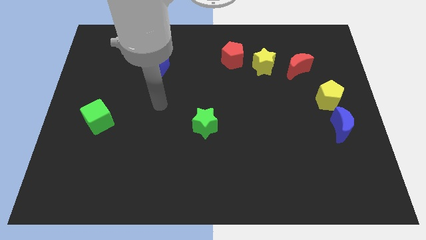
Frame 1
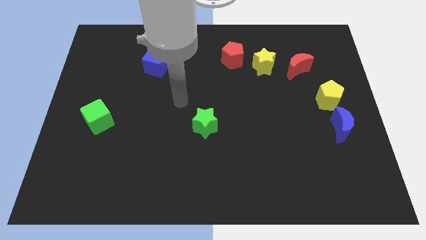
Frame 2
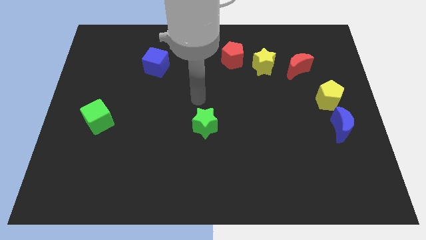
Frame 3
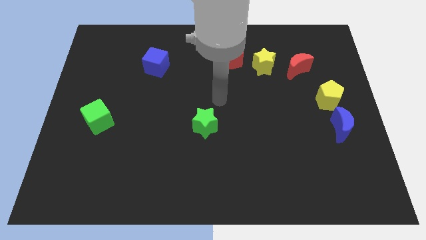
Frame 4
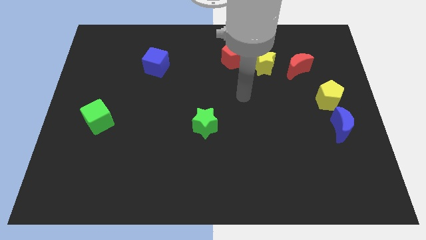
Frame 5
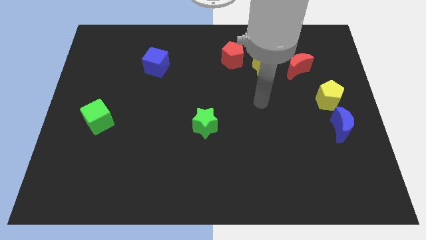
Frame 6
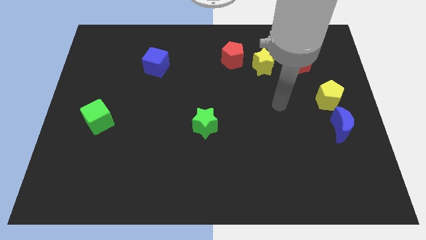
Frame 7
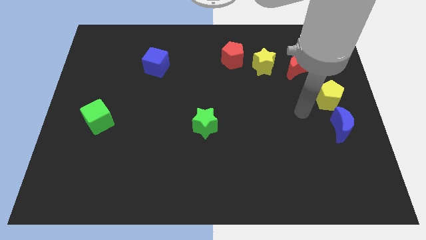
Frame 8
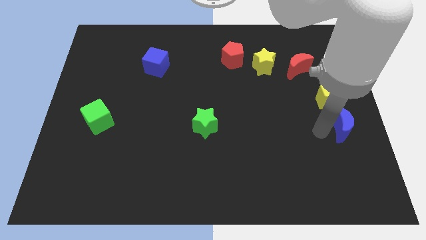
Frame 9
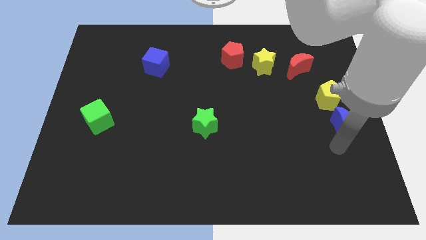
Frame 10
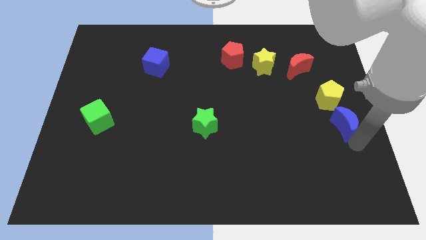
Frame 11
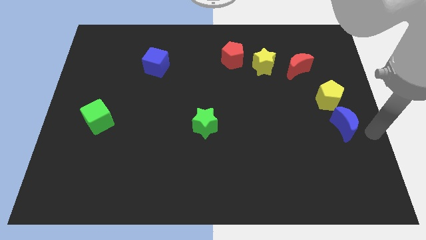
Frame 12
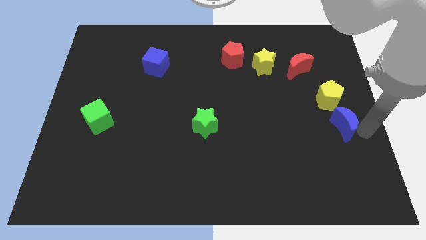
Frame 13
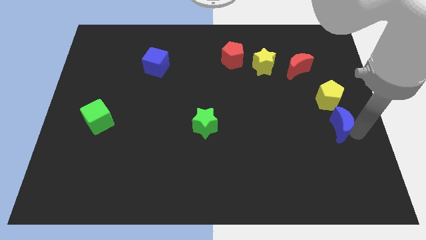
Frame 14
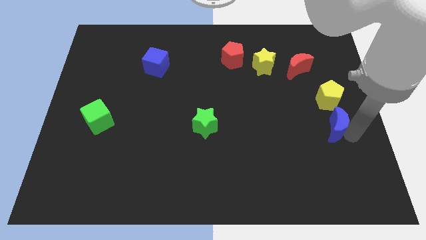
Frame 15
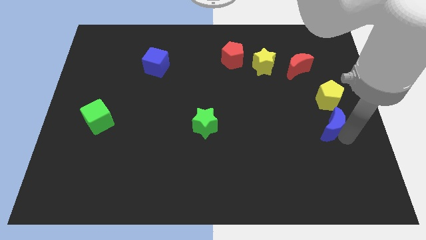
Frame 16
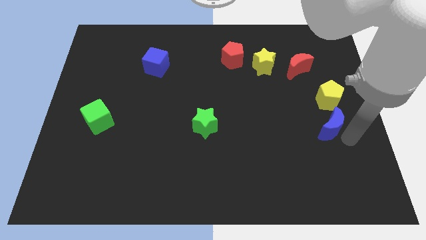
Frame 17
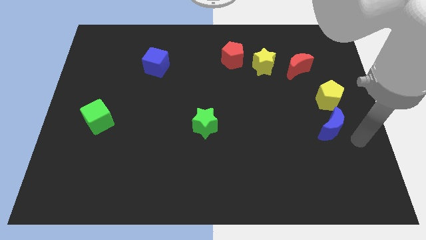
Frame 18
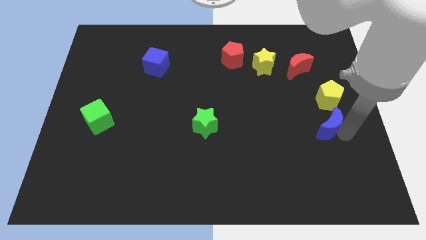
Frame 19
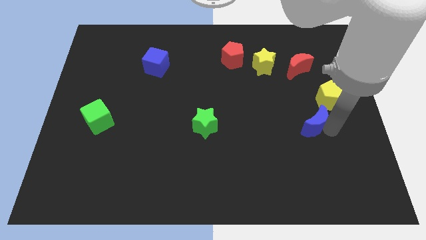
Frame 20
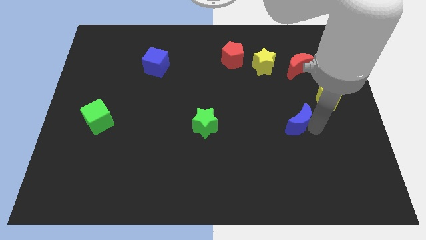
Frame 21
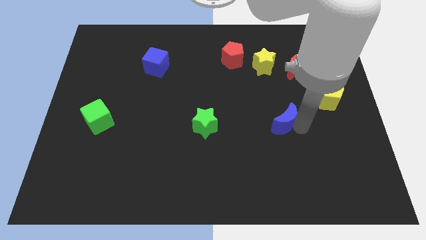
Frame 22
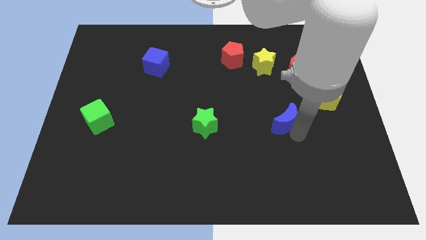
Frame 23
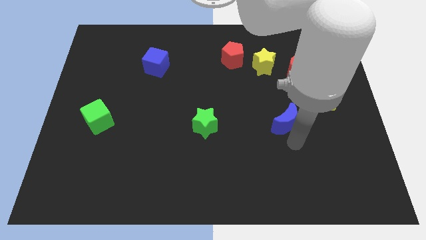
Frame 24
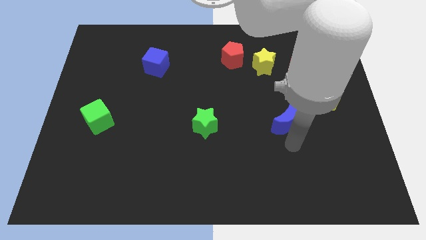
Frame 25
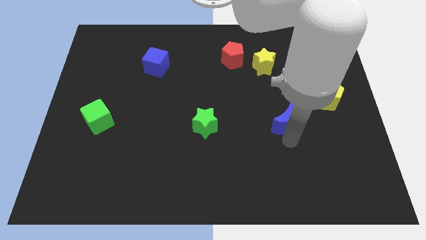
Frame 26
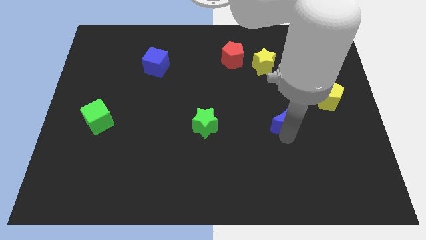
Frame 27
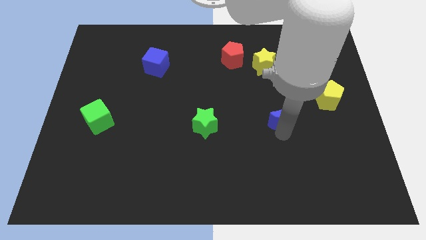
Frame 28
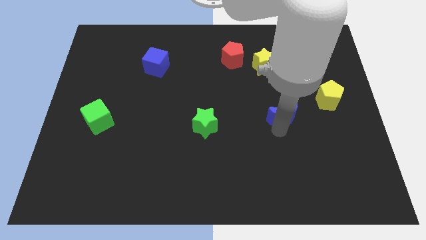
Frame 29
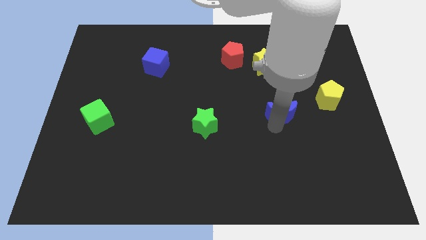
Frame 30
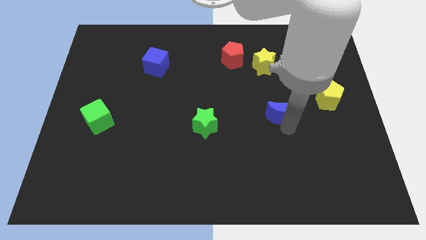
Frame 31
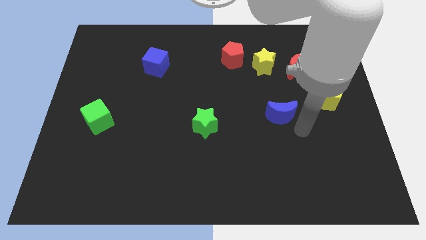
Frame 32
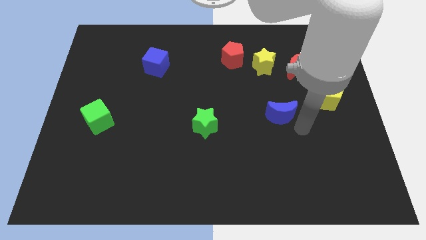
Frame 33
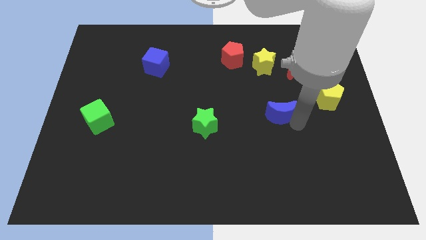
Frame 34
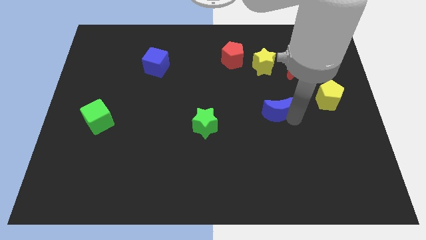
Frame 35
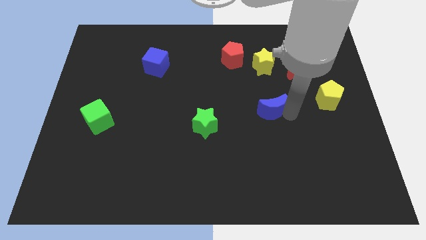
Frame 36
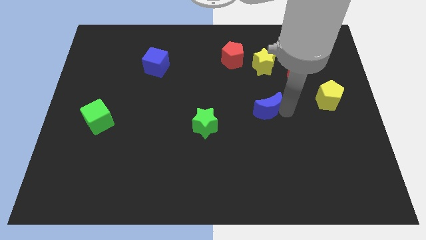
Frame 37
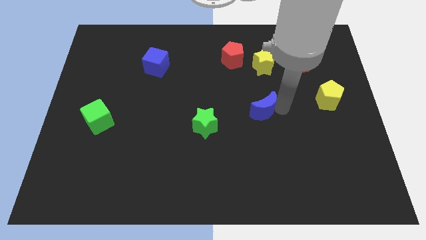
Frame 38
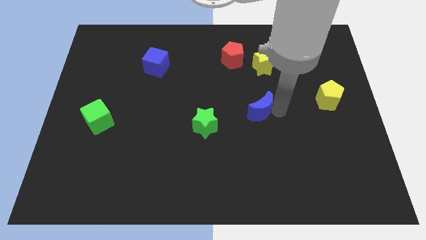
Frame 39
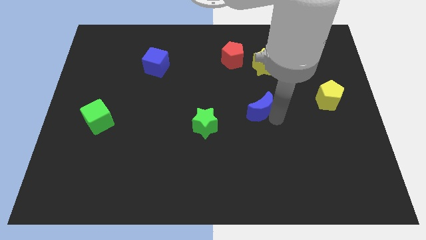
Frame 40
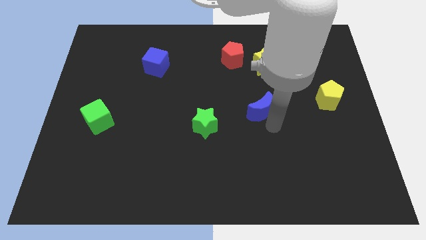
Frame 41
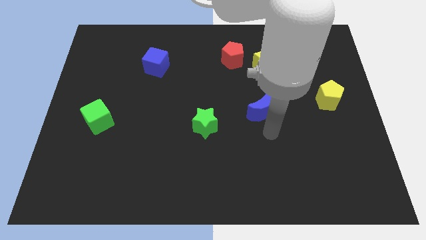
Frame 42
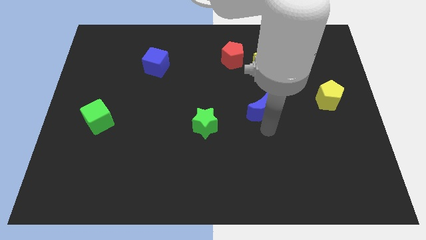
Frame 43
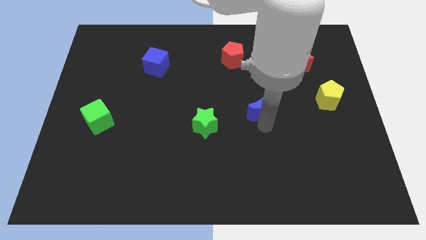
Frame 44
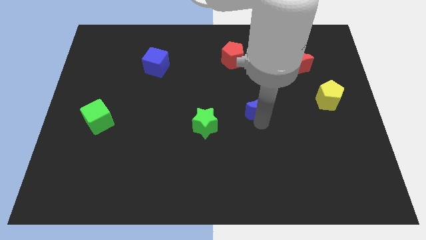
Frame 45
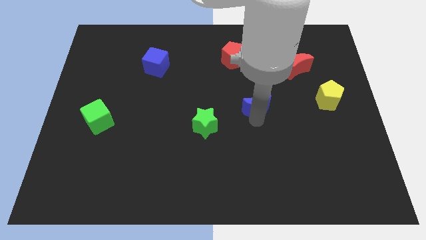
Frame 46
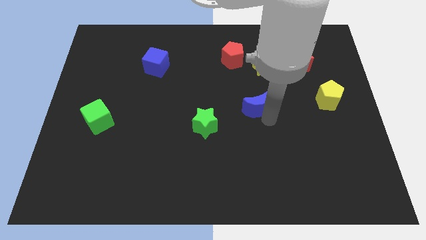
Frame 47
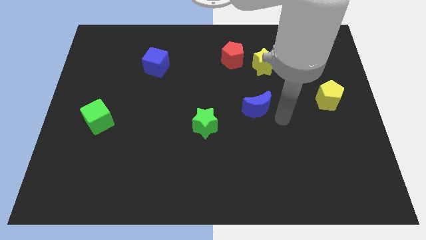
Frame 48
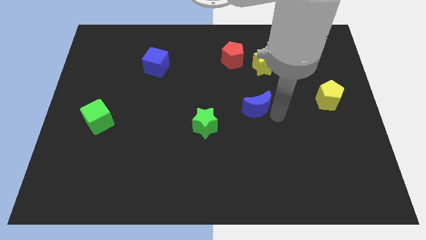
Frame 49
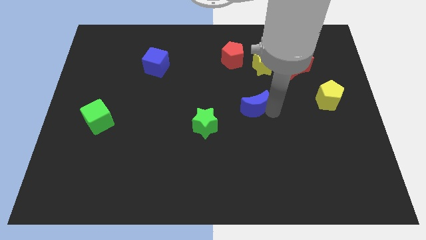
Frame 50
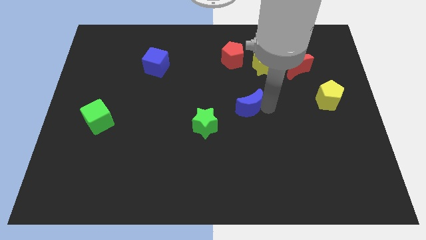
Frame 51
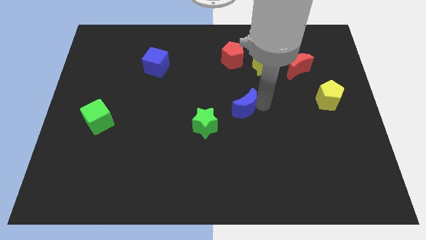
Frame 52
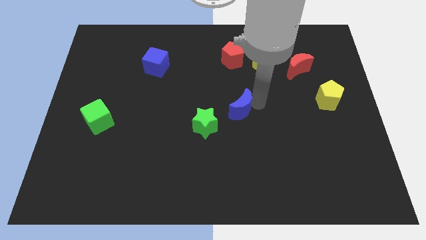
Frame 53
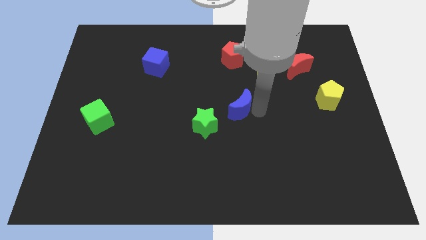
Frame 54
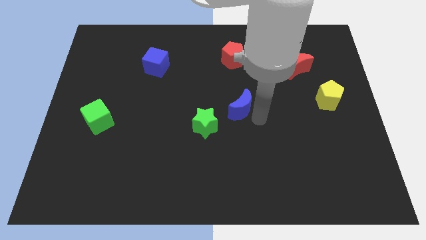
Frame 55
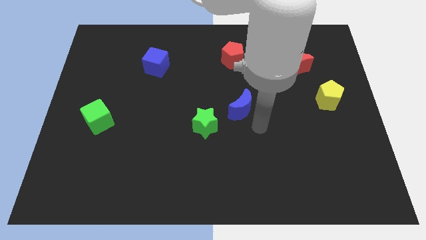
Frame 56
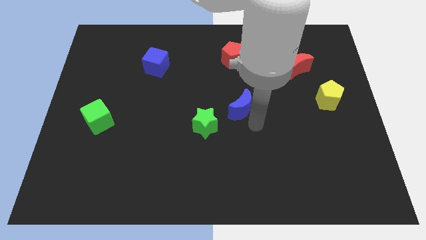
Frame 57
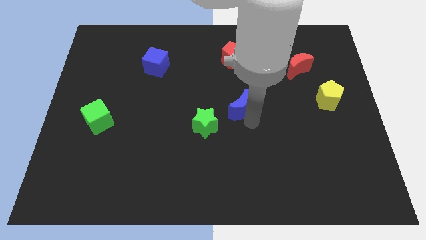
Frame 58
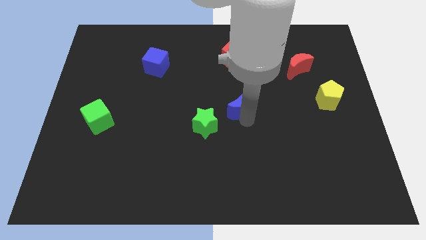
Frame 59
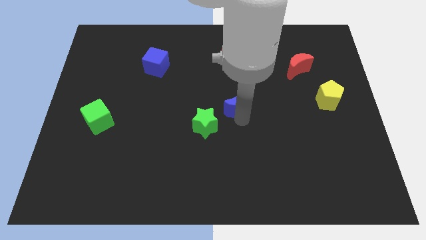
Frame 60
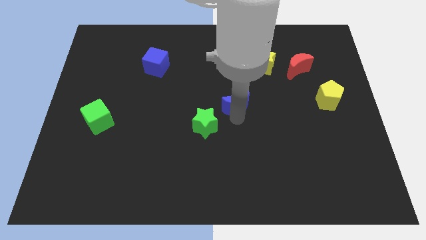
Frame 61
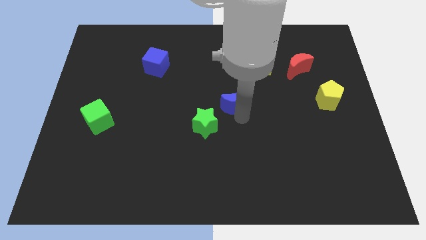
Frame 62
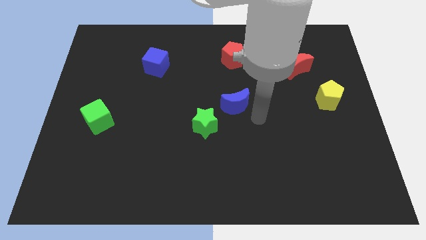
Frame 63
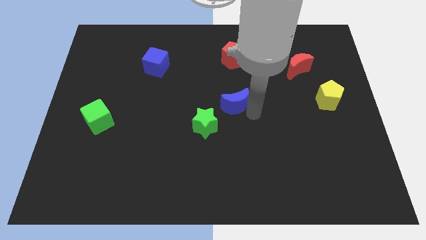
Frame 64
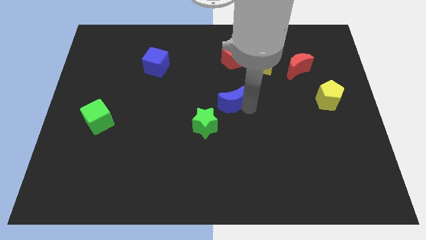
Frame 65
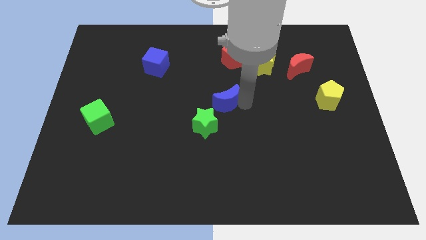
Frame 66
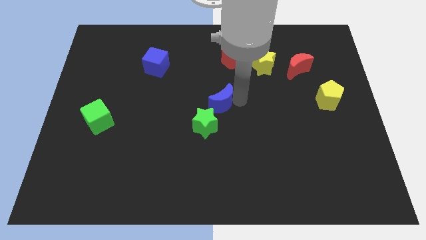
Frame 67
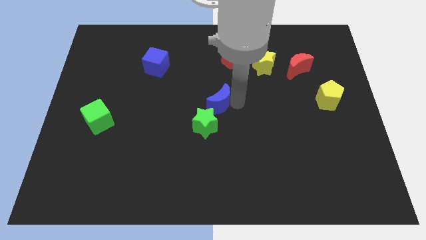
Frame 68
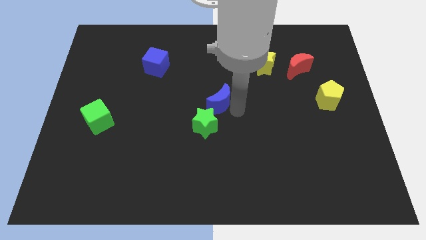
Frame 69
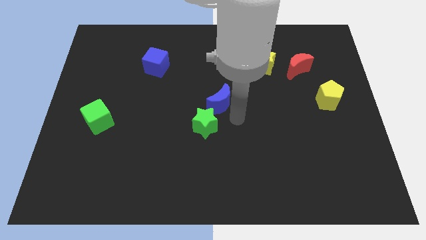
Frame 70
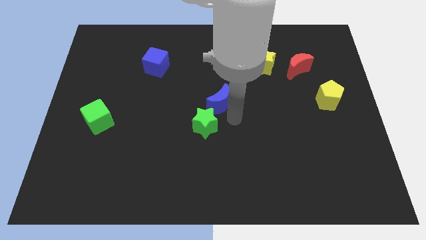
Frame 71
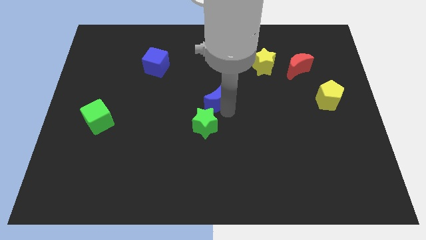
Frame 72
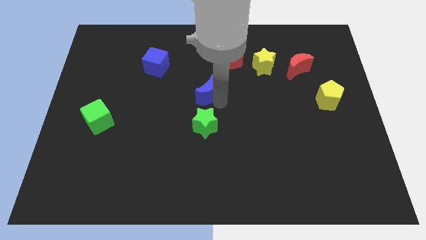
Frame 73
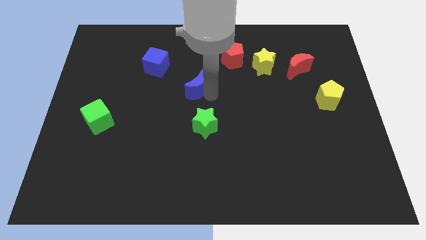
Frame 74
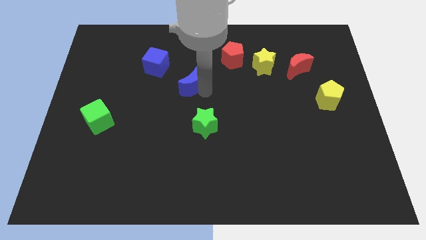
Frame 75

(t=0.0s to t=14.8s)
put the blue moon to the bottom right side of the blue cube
